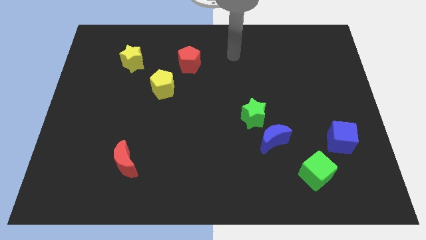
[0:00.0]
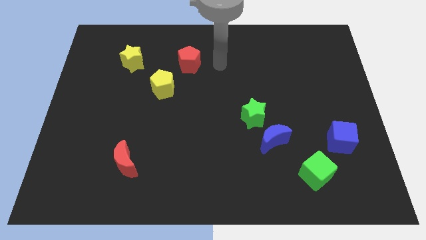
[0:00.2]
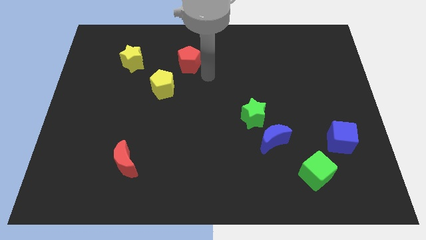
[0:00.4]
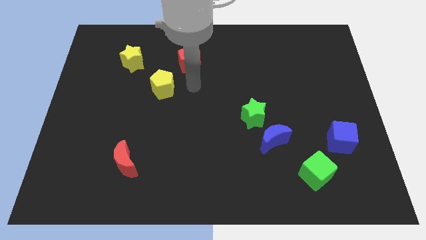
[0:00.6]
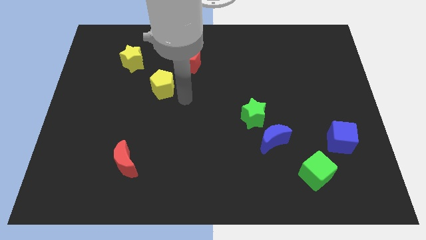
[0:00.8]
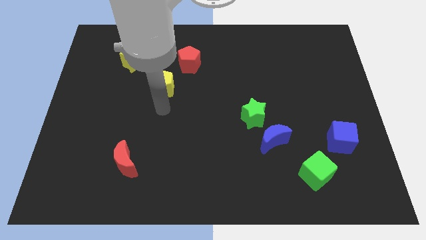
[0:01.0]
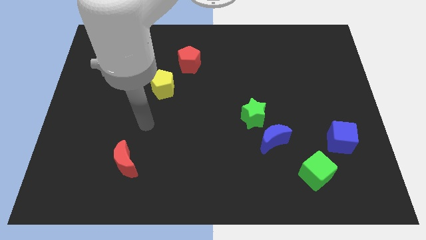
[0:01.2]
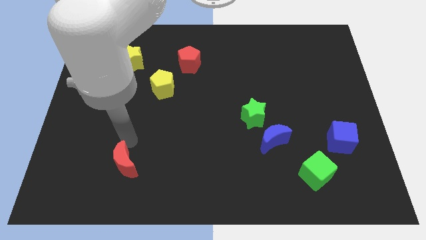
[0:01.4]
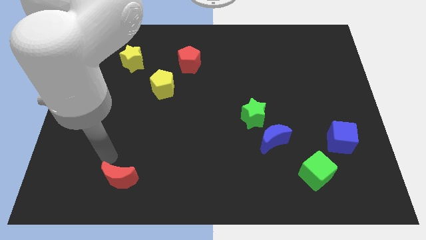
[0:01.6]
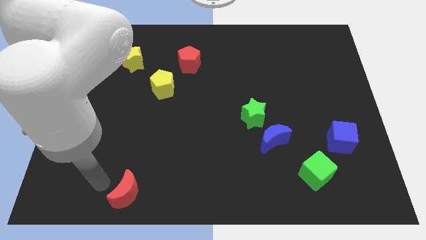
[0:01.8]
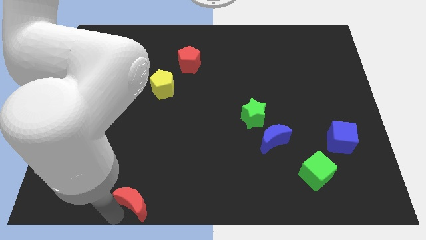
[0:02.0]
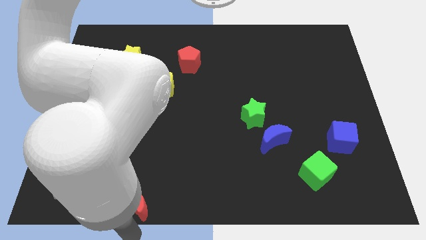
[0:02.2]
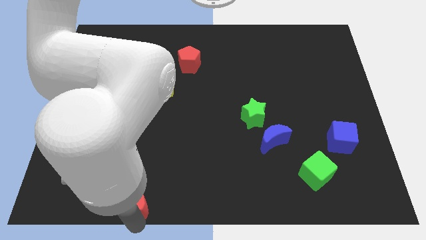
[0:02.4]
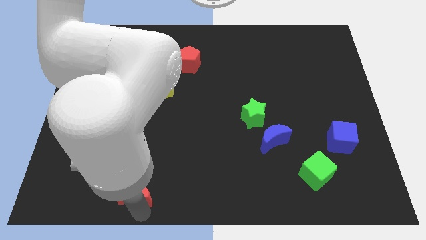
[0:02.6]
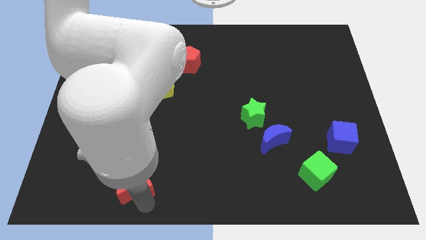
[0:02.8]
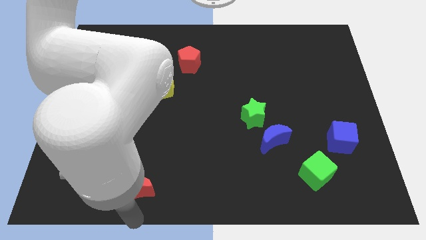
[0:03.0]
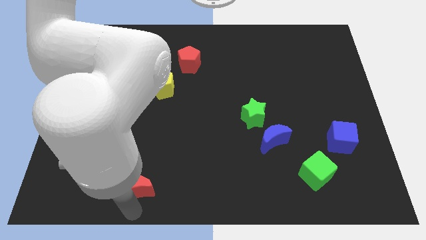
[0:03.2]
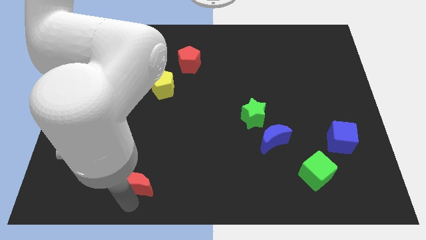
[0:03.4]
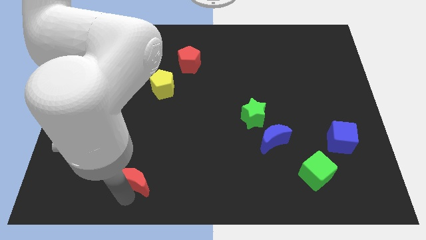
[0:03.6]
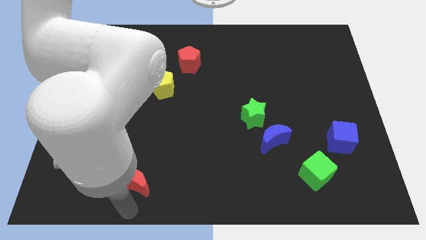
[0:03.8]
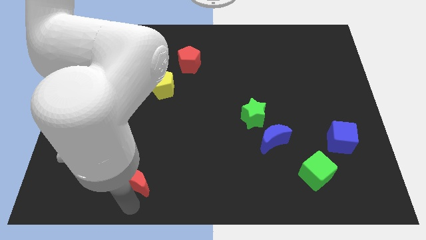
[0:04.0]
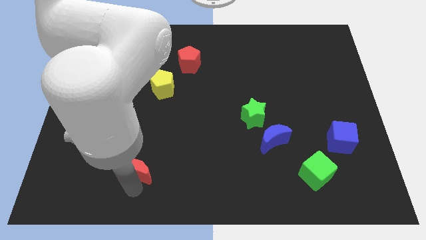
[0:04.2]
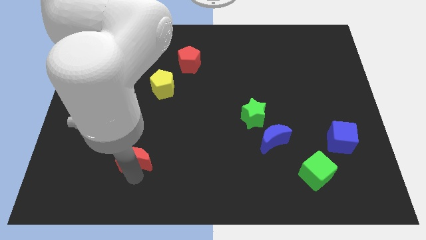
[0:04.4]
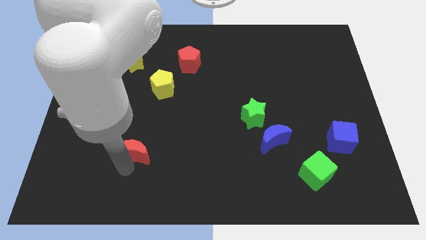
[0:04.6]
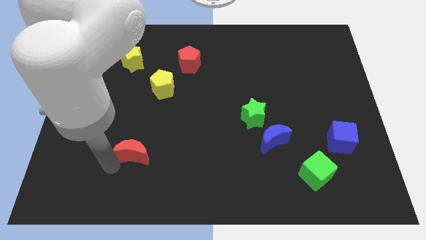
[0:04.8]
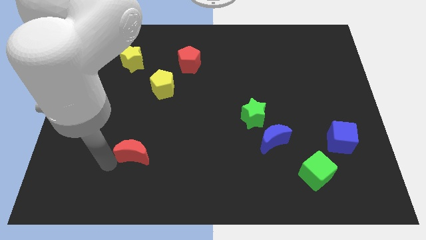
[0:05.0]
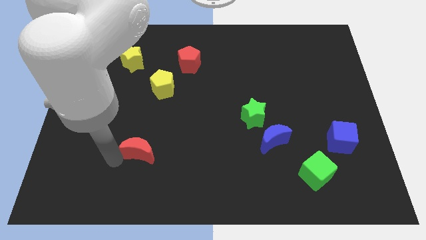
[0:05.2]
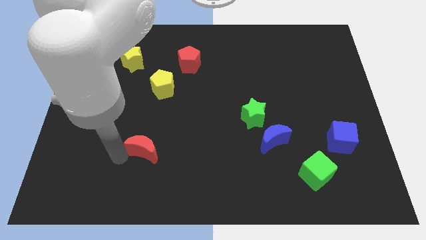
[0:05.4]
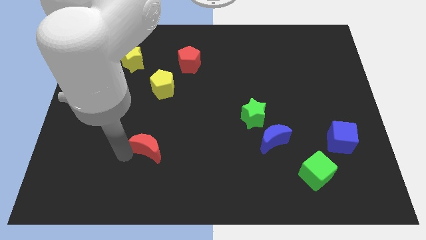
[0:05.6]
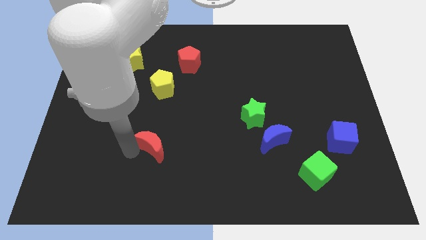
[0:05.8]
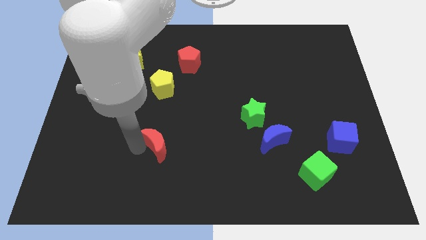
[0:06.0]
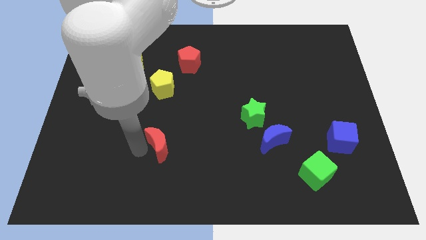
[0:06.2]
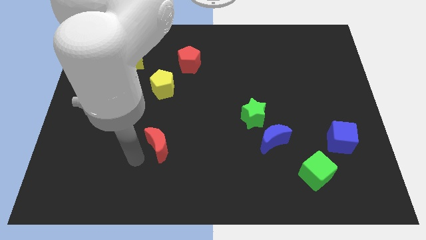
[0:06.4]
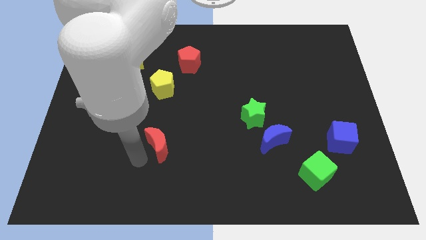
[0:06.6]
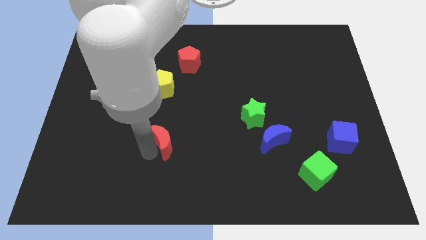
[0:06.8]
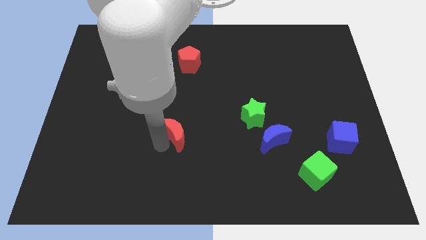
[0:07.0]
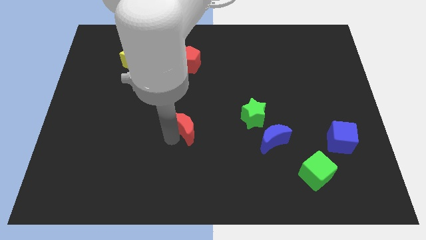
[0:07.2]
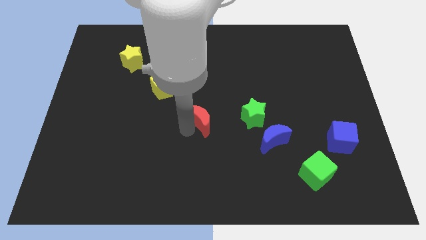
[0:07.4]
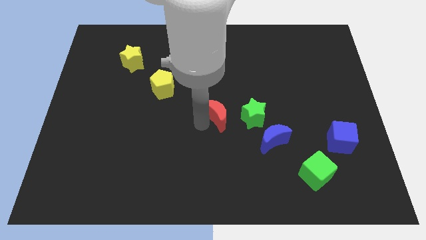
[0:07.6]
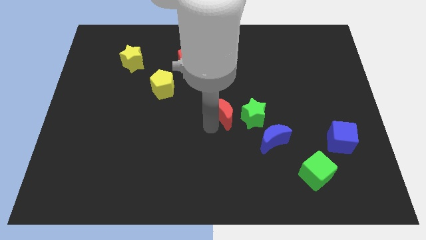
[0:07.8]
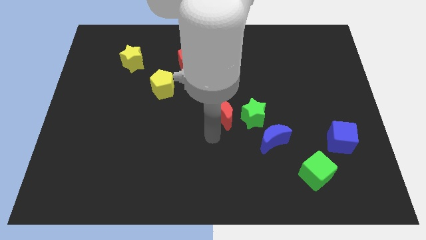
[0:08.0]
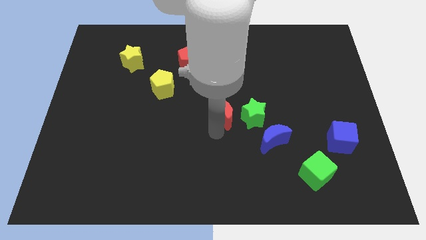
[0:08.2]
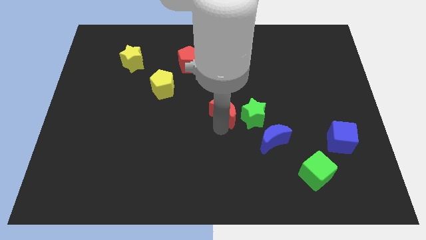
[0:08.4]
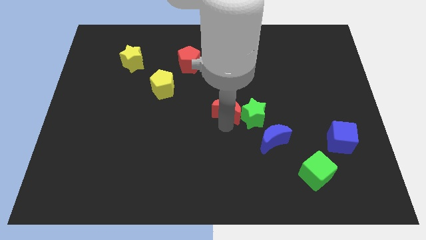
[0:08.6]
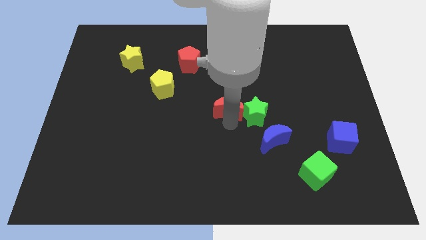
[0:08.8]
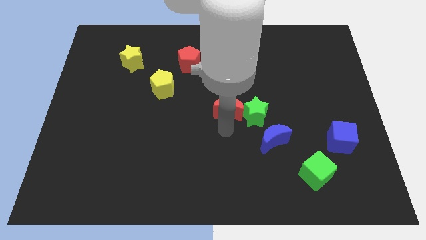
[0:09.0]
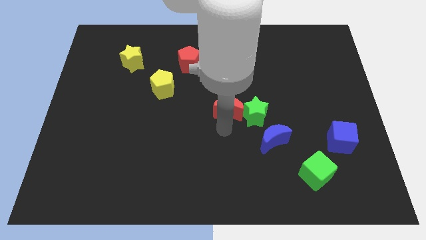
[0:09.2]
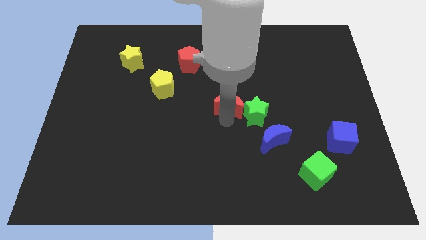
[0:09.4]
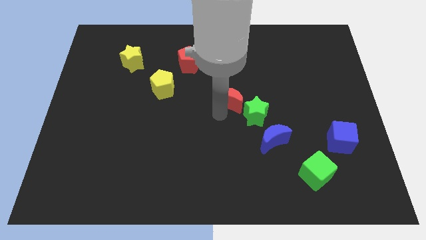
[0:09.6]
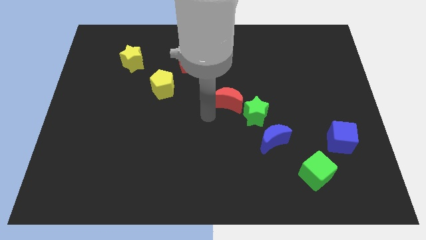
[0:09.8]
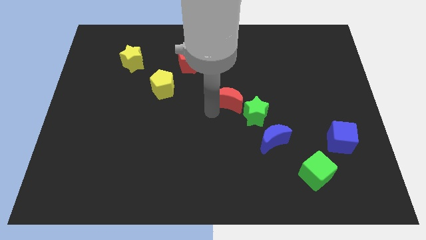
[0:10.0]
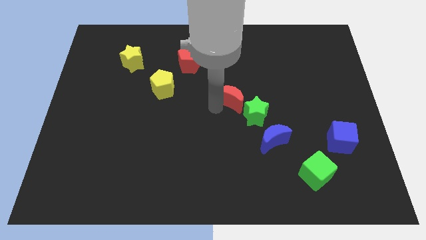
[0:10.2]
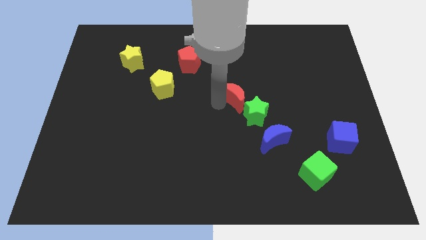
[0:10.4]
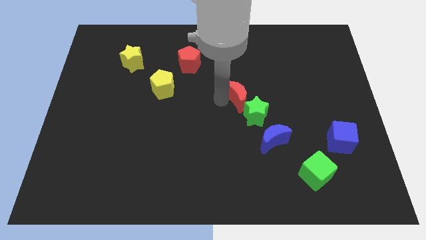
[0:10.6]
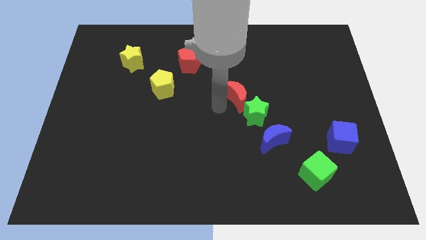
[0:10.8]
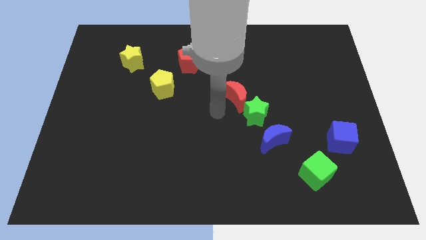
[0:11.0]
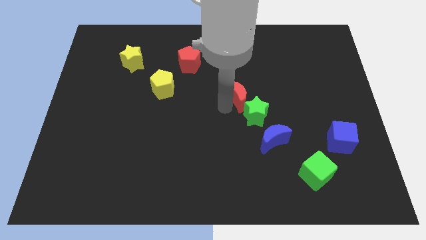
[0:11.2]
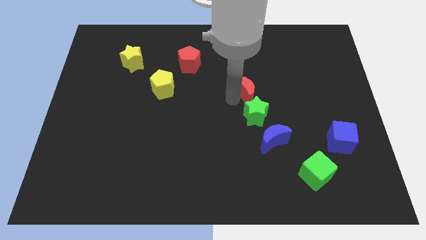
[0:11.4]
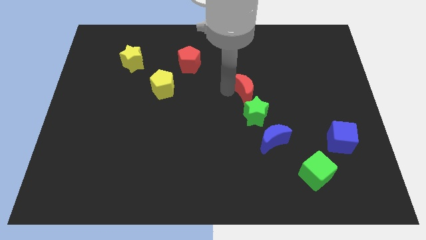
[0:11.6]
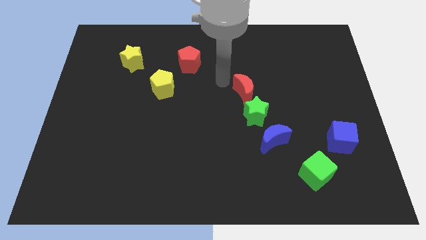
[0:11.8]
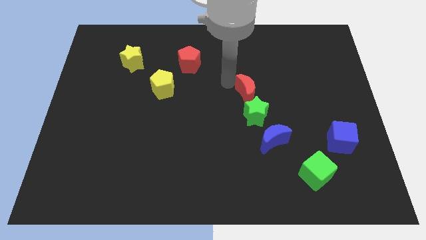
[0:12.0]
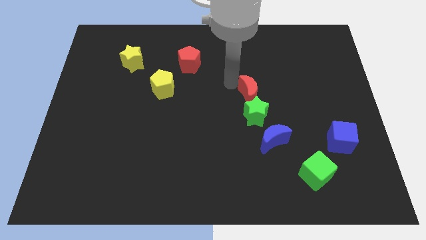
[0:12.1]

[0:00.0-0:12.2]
push the red moon to the top side of the blue moon
